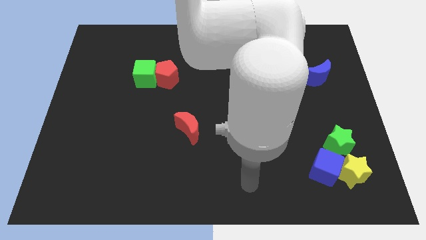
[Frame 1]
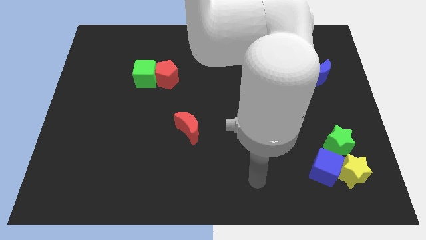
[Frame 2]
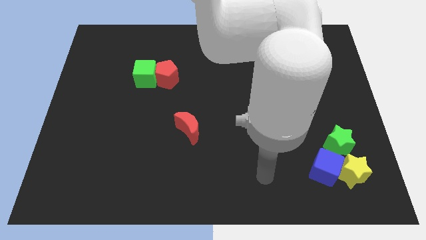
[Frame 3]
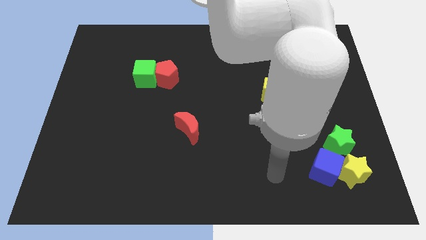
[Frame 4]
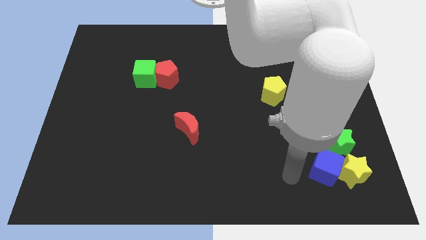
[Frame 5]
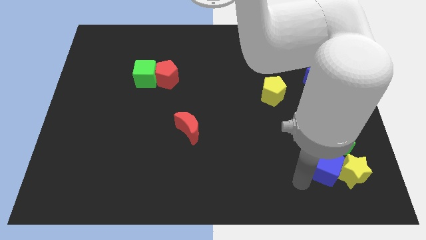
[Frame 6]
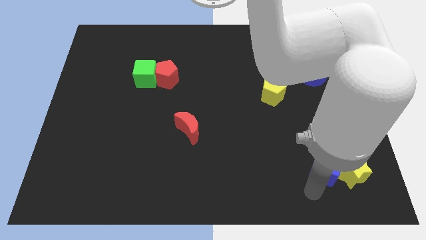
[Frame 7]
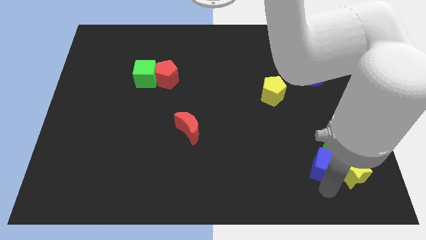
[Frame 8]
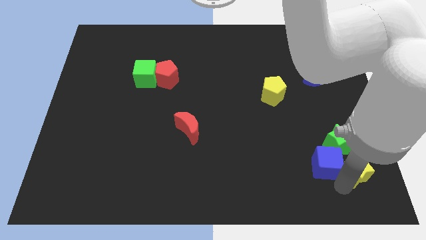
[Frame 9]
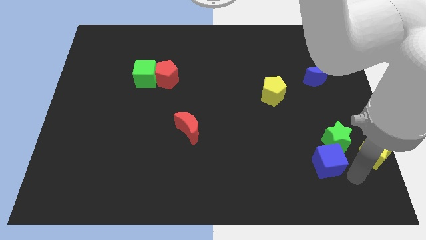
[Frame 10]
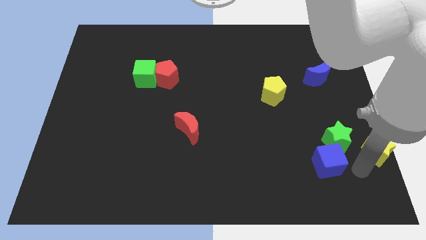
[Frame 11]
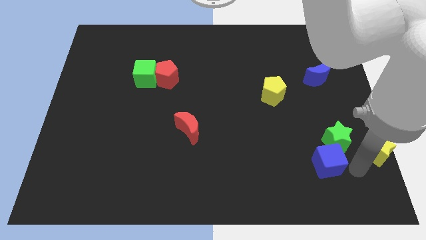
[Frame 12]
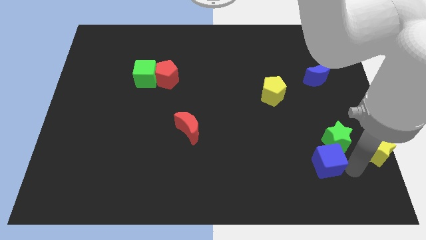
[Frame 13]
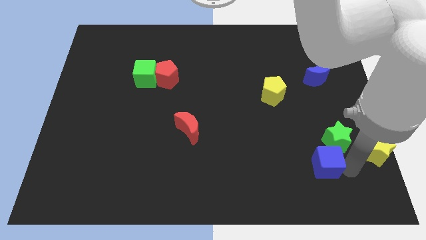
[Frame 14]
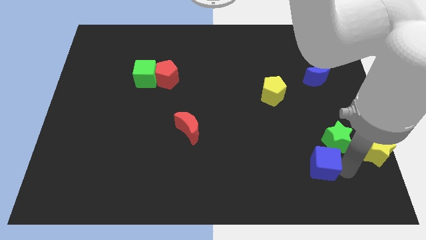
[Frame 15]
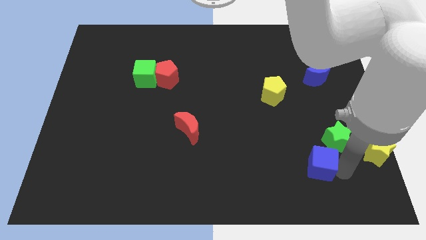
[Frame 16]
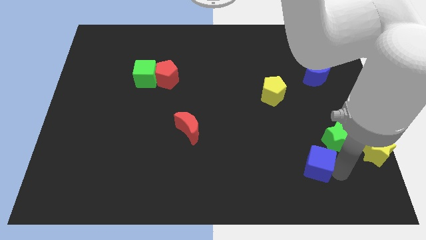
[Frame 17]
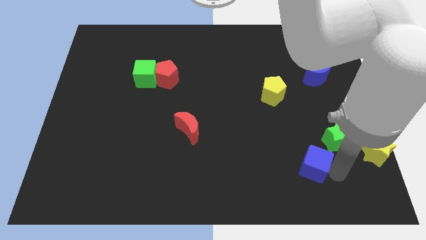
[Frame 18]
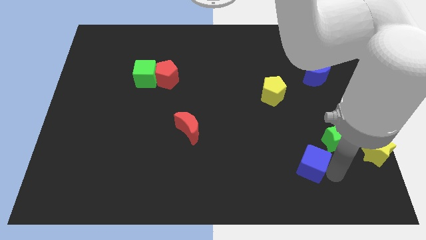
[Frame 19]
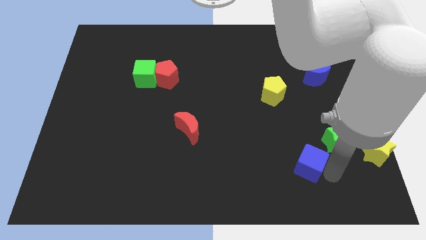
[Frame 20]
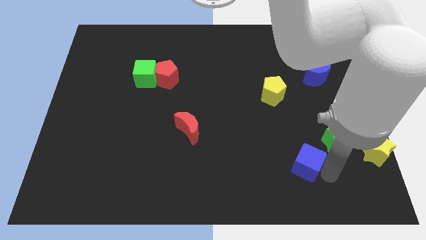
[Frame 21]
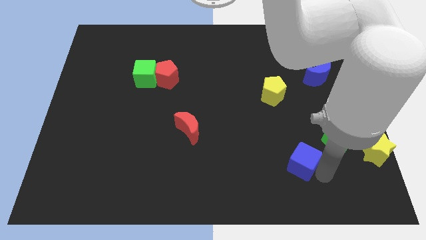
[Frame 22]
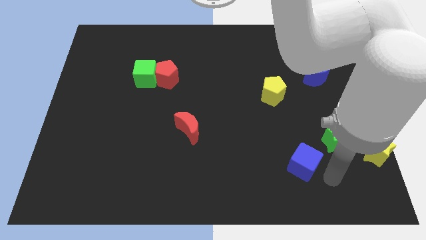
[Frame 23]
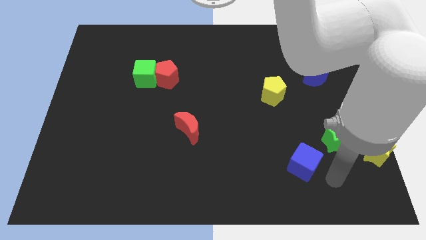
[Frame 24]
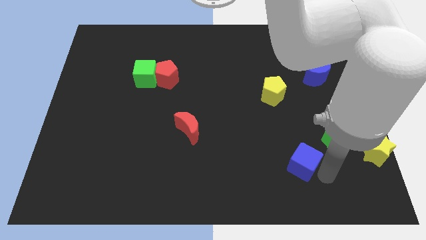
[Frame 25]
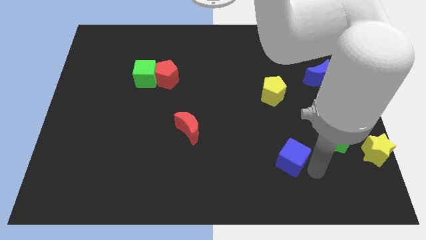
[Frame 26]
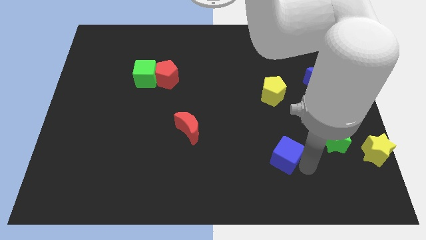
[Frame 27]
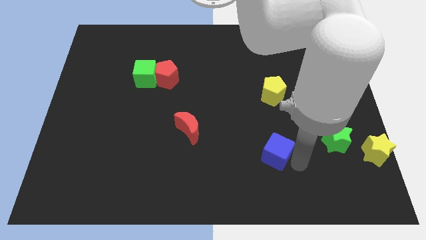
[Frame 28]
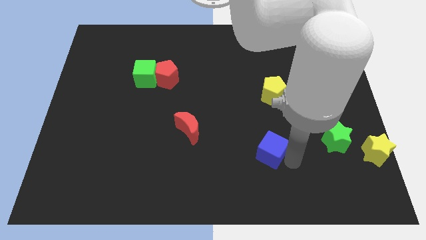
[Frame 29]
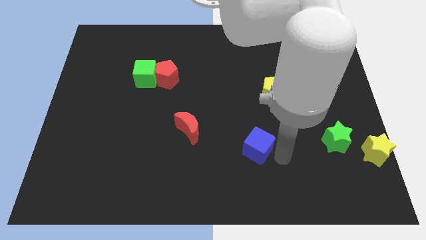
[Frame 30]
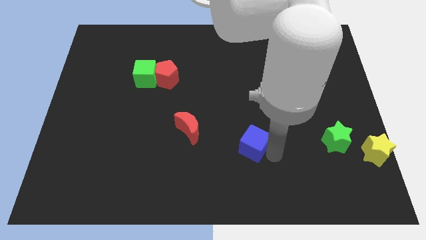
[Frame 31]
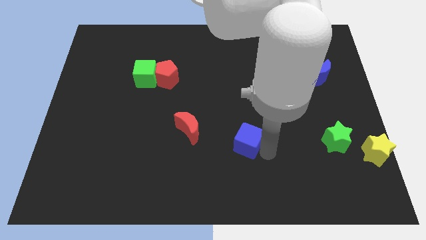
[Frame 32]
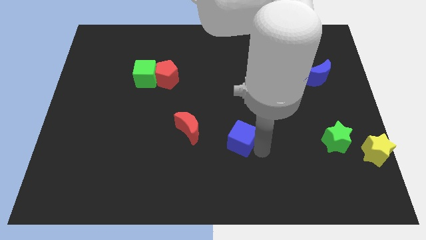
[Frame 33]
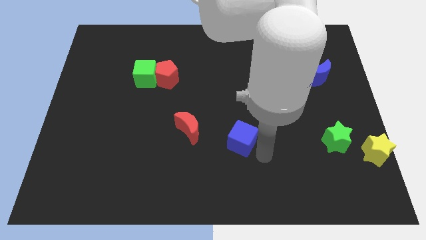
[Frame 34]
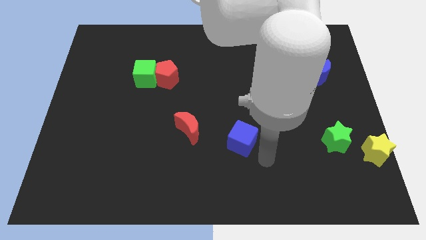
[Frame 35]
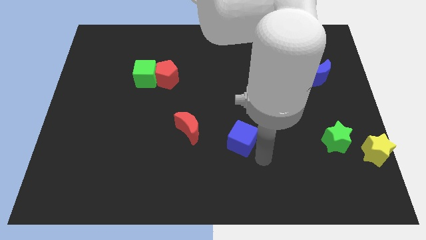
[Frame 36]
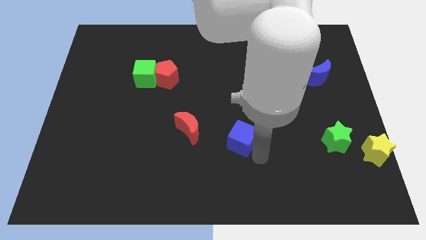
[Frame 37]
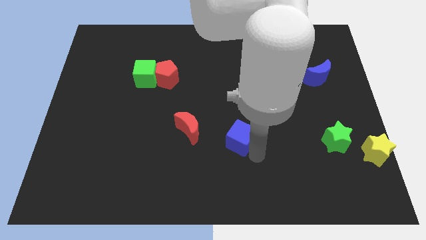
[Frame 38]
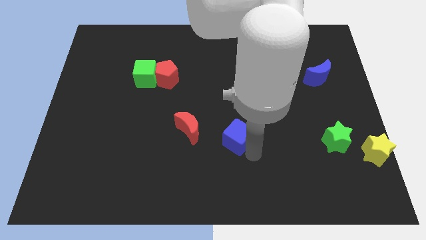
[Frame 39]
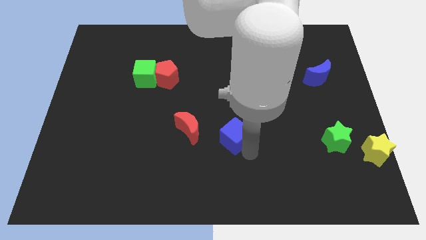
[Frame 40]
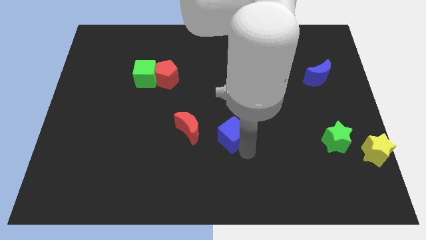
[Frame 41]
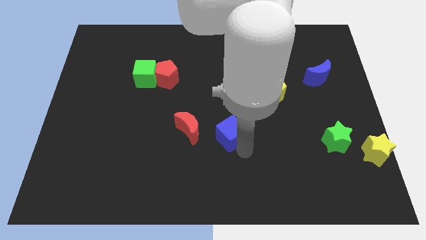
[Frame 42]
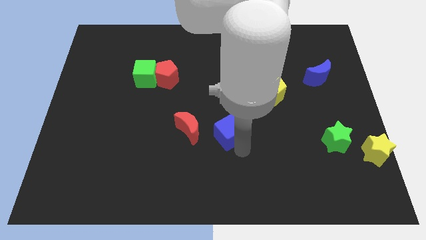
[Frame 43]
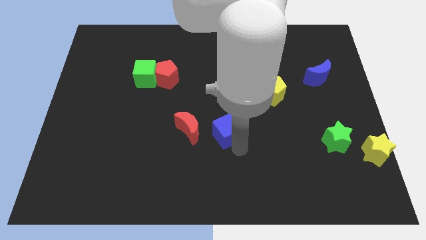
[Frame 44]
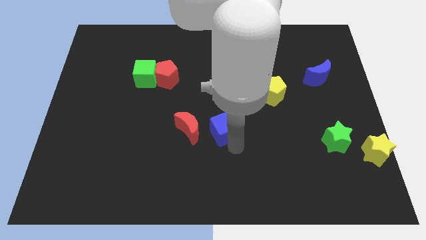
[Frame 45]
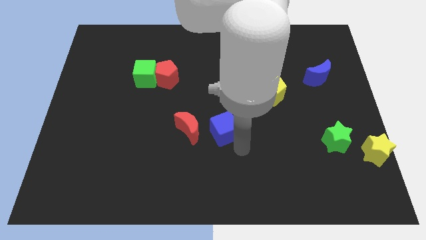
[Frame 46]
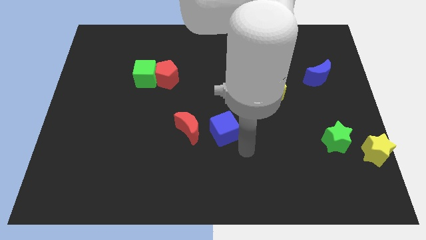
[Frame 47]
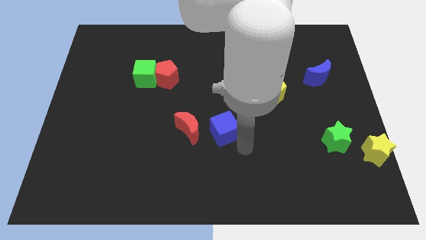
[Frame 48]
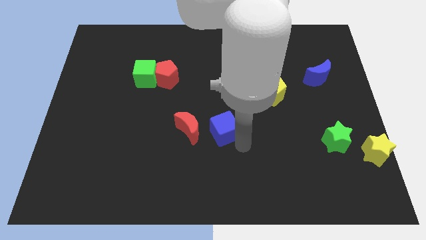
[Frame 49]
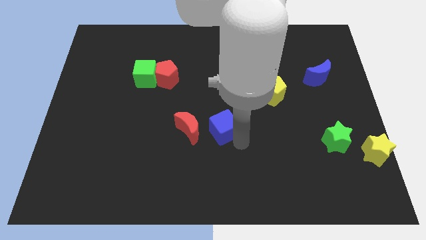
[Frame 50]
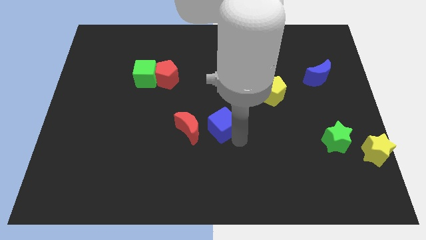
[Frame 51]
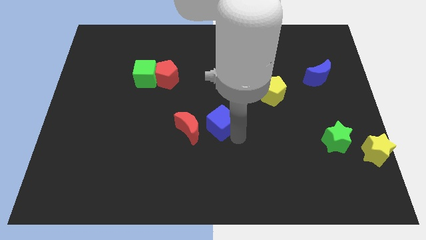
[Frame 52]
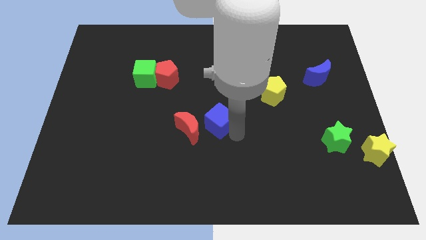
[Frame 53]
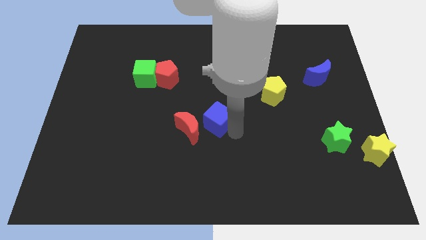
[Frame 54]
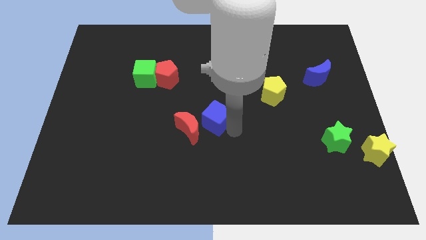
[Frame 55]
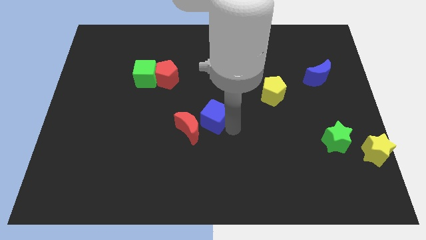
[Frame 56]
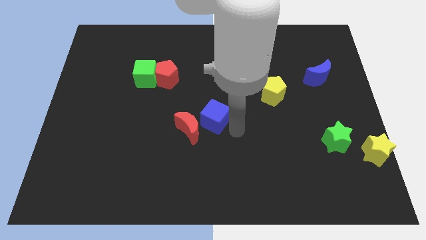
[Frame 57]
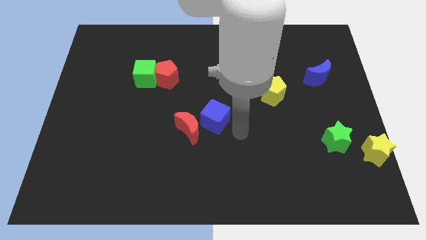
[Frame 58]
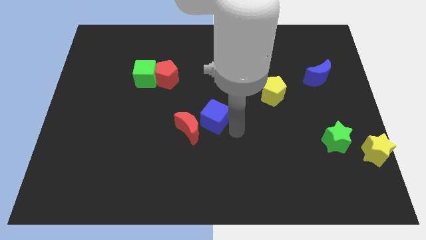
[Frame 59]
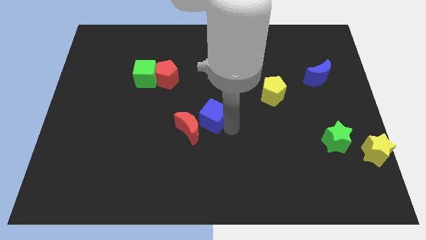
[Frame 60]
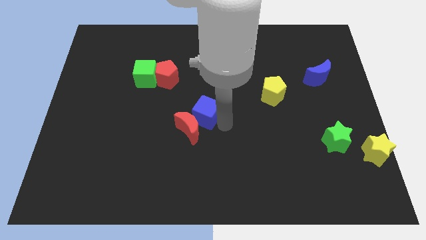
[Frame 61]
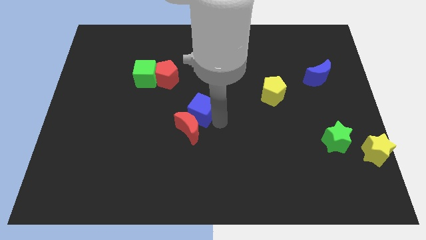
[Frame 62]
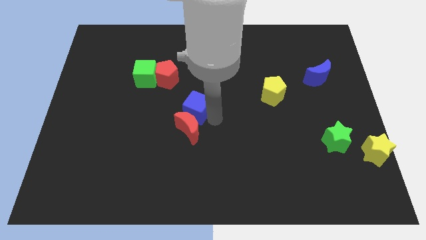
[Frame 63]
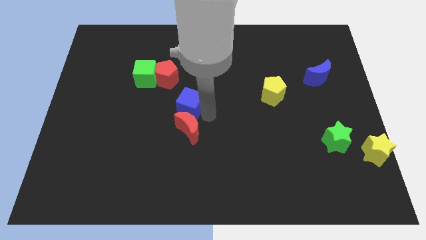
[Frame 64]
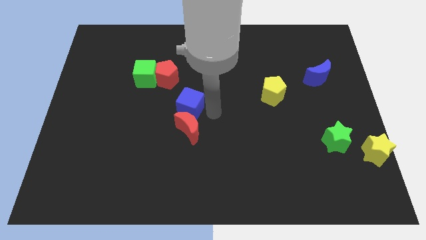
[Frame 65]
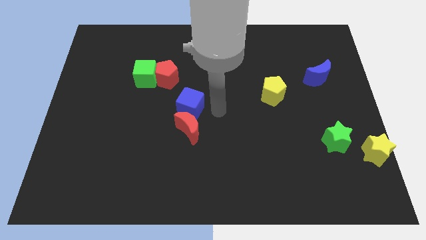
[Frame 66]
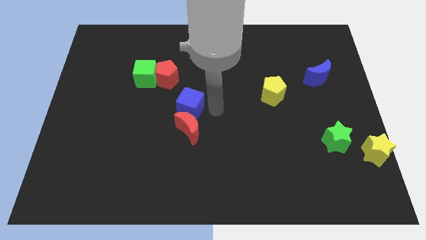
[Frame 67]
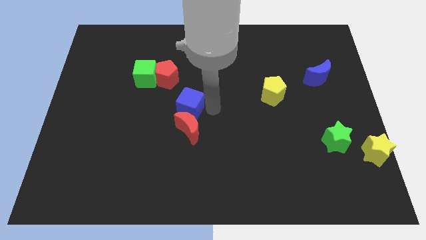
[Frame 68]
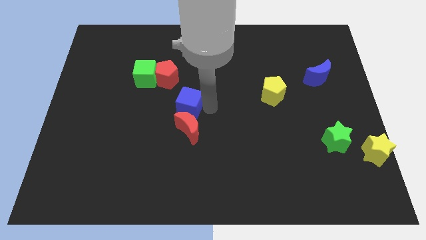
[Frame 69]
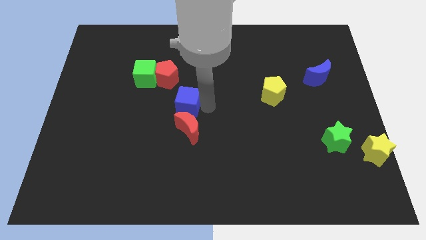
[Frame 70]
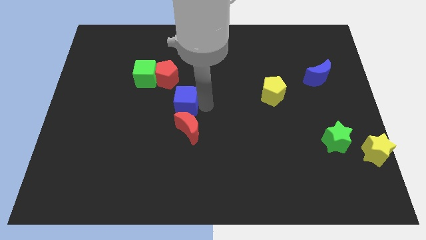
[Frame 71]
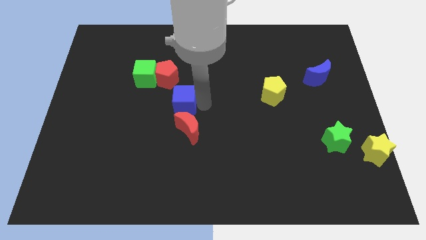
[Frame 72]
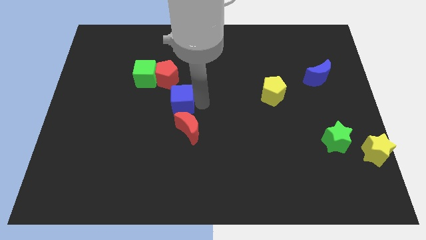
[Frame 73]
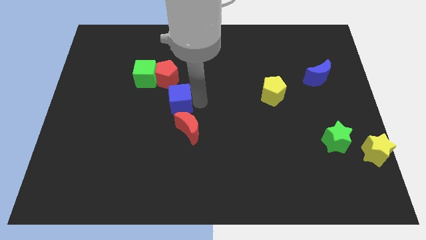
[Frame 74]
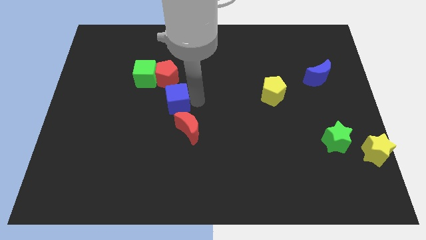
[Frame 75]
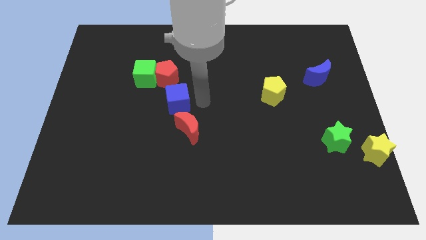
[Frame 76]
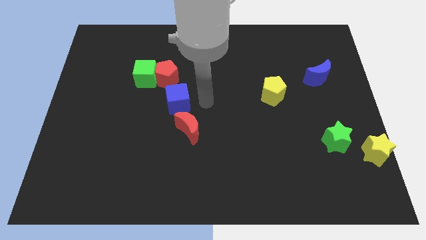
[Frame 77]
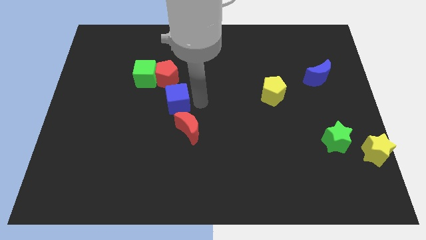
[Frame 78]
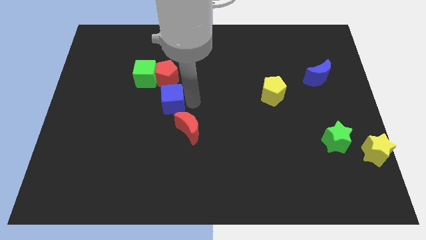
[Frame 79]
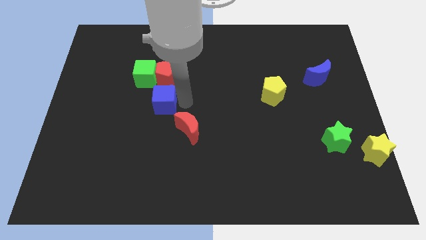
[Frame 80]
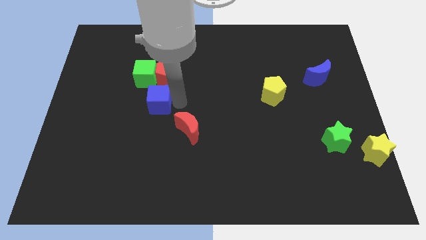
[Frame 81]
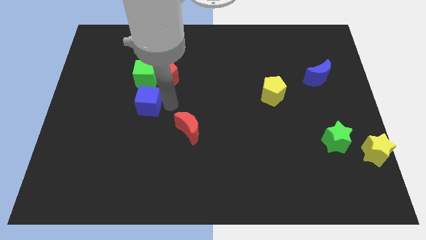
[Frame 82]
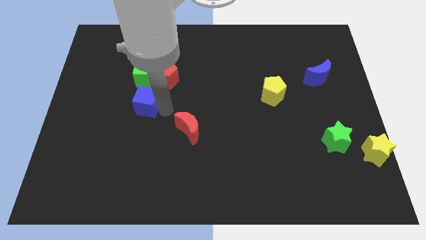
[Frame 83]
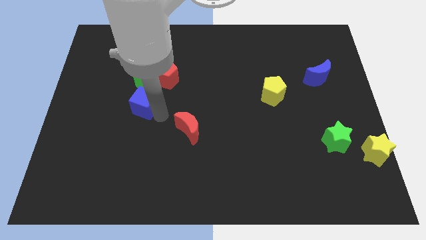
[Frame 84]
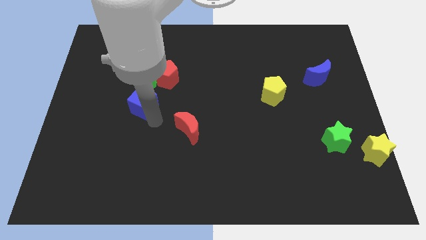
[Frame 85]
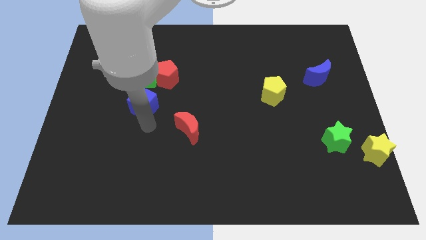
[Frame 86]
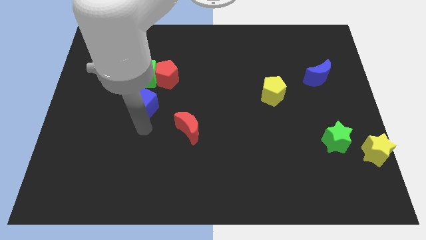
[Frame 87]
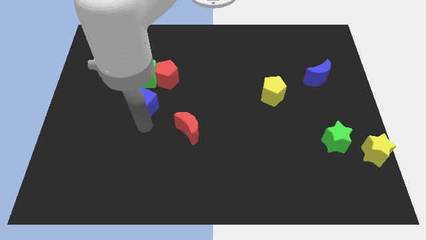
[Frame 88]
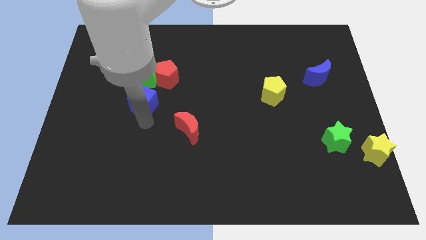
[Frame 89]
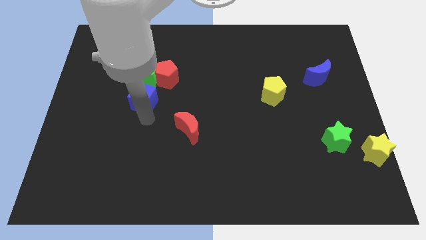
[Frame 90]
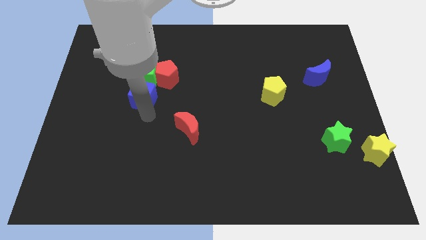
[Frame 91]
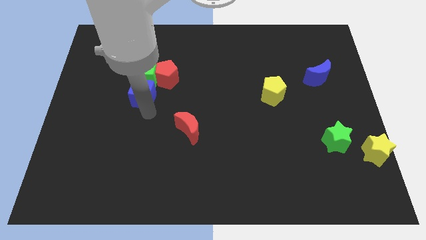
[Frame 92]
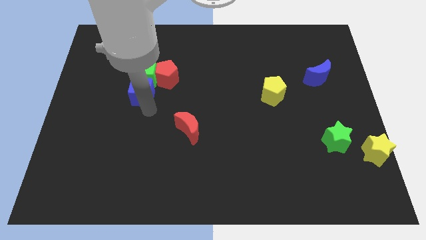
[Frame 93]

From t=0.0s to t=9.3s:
push the blue cube close to the green cube
